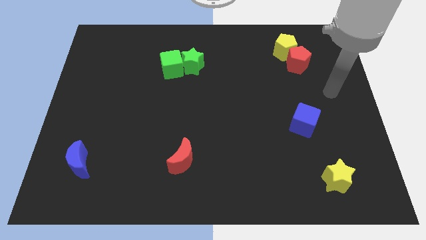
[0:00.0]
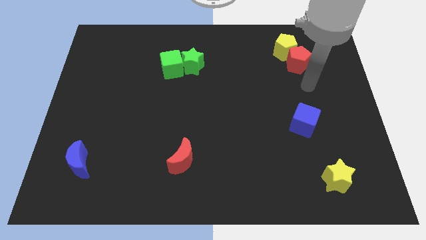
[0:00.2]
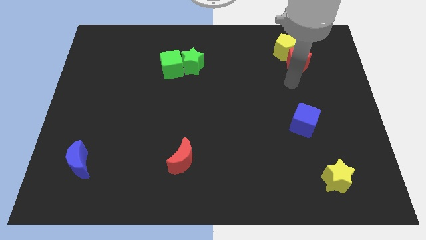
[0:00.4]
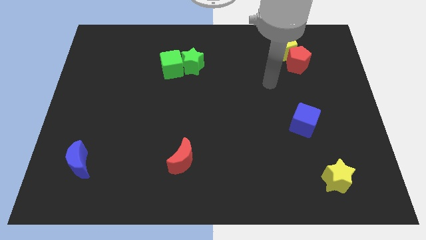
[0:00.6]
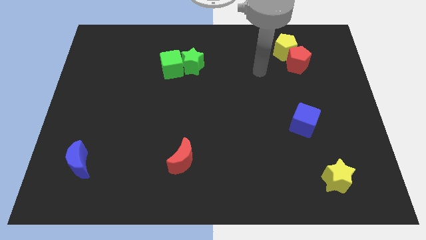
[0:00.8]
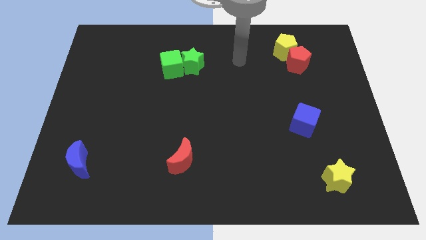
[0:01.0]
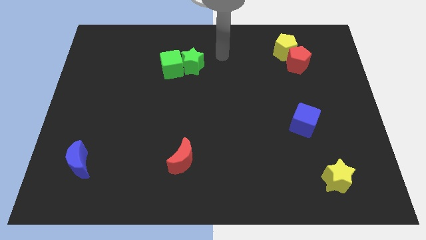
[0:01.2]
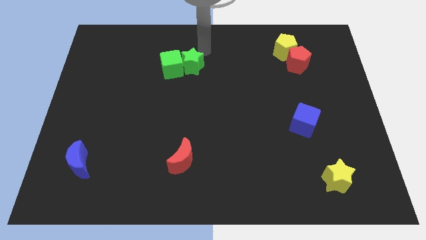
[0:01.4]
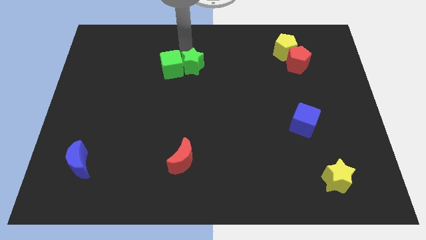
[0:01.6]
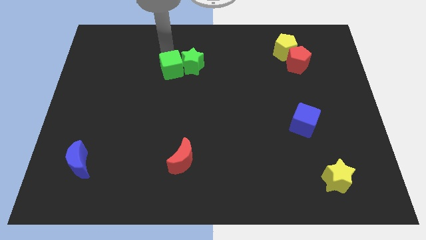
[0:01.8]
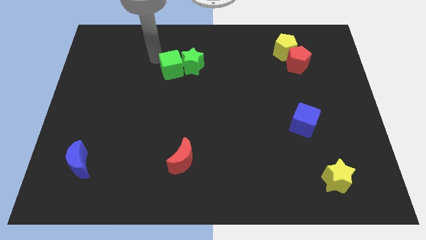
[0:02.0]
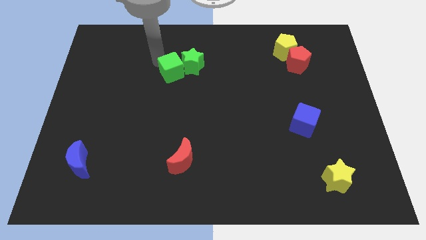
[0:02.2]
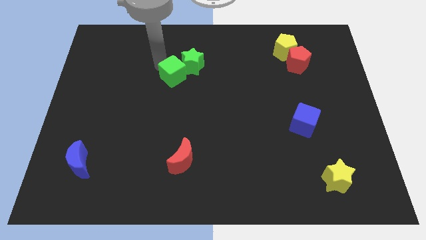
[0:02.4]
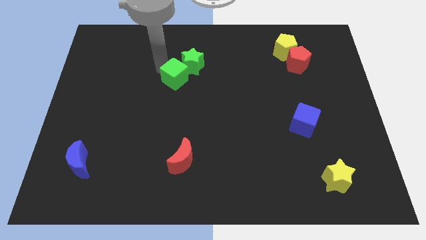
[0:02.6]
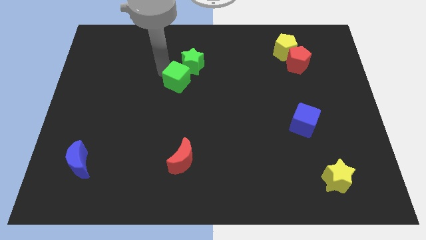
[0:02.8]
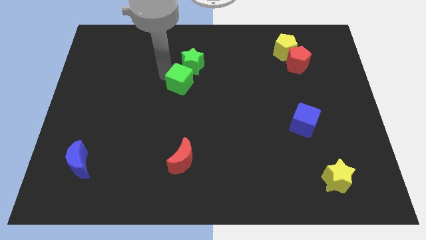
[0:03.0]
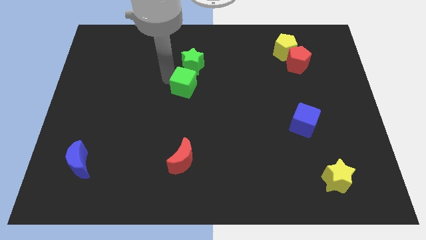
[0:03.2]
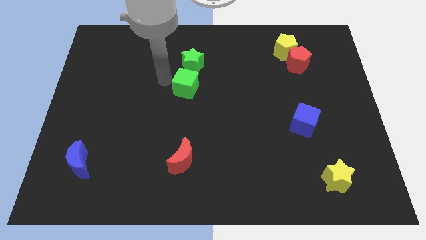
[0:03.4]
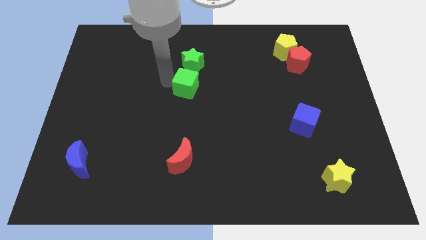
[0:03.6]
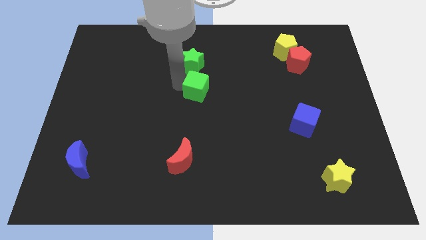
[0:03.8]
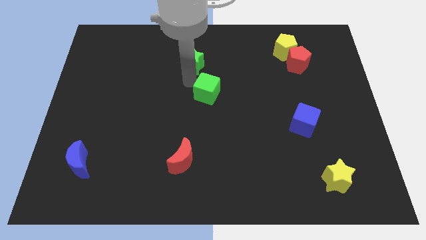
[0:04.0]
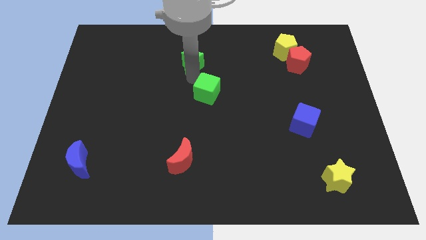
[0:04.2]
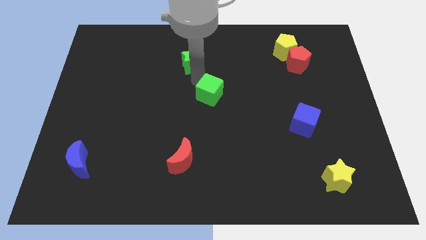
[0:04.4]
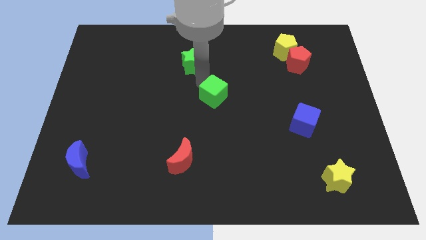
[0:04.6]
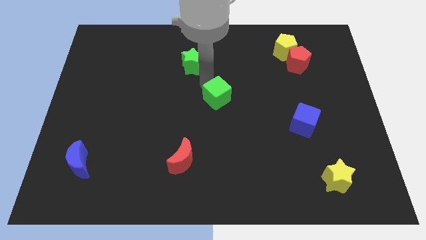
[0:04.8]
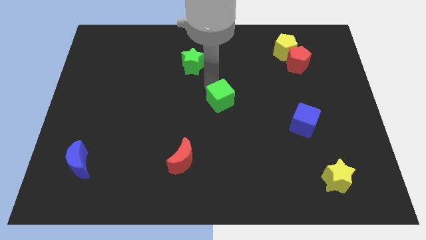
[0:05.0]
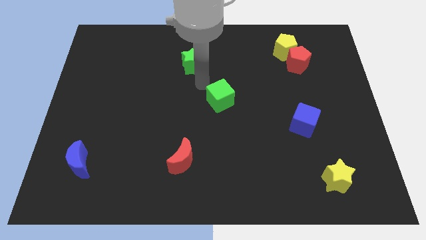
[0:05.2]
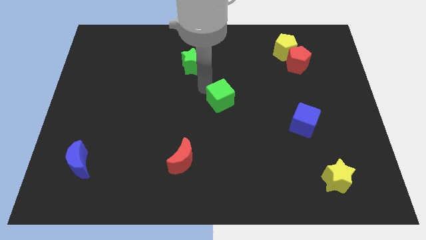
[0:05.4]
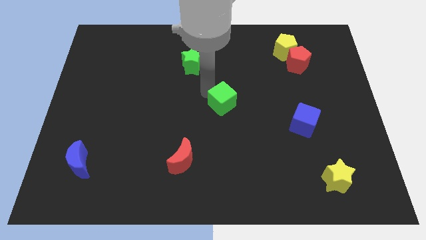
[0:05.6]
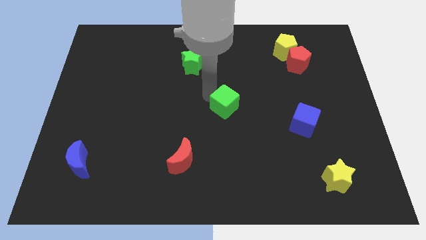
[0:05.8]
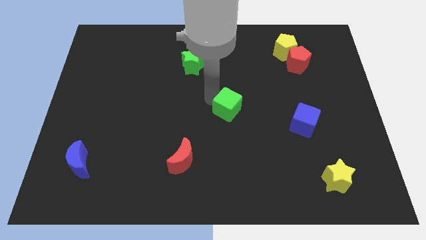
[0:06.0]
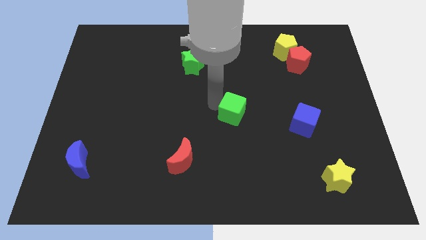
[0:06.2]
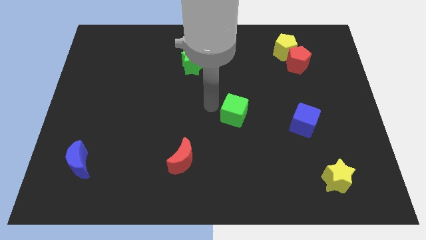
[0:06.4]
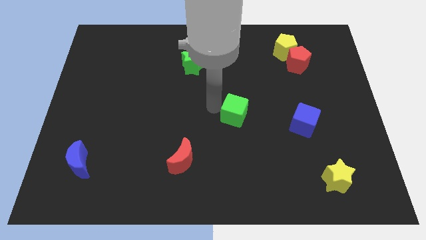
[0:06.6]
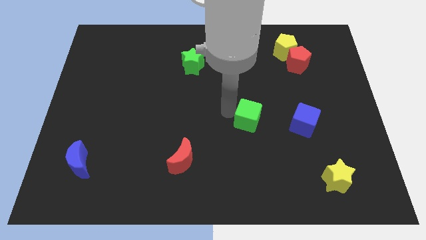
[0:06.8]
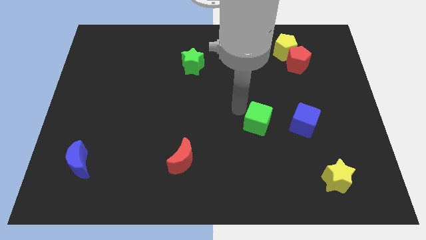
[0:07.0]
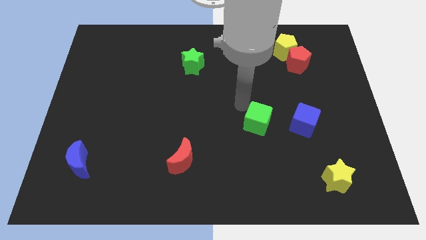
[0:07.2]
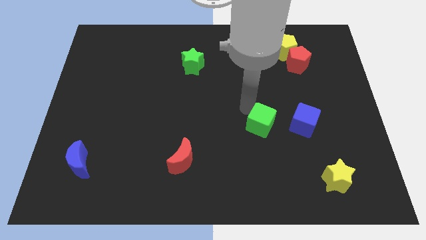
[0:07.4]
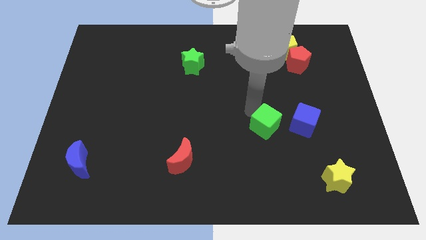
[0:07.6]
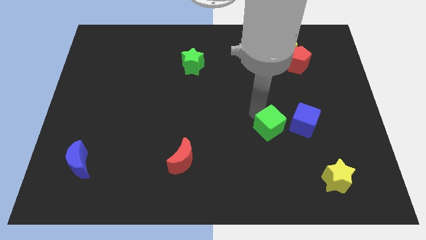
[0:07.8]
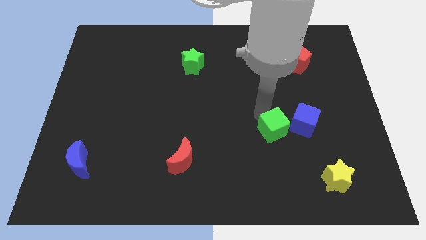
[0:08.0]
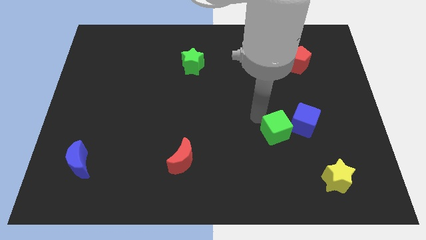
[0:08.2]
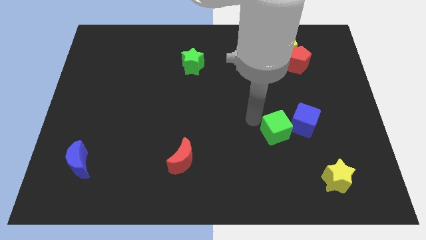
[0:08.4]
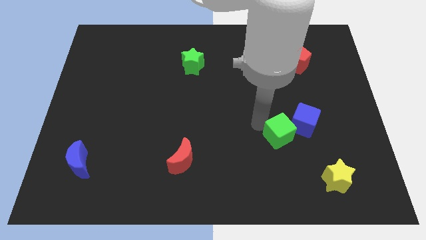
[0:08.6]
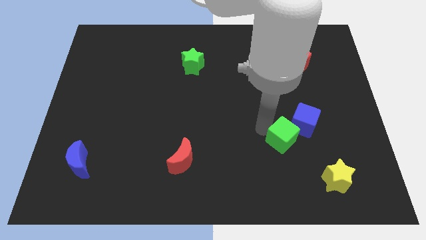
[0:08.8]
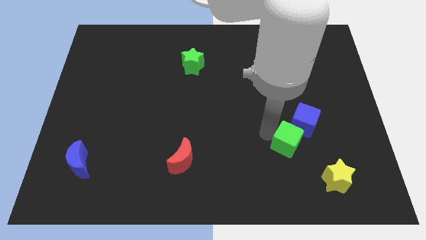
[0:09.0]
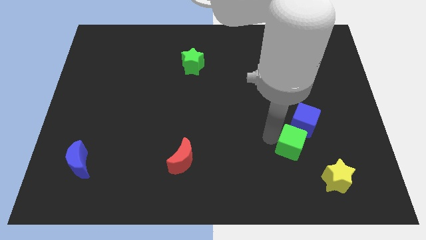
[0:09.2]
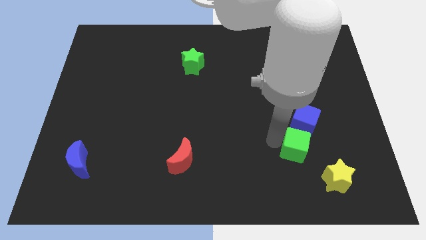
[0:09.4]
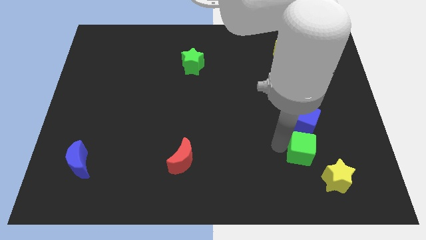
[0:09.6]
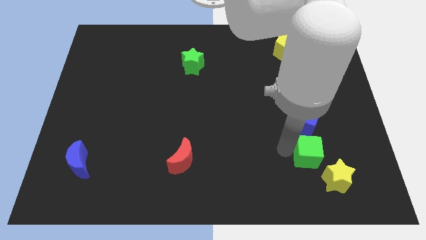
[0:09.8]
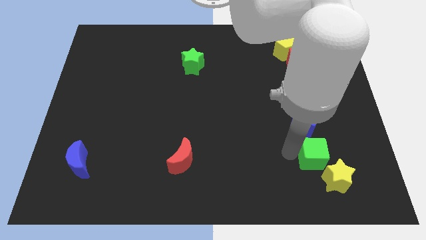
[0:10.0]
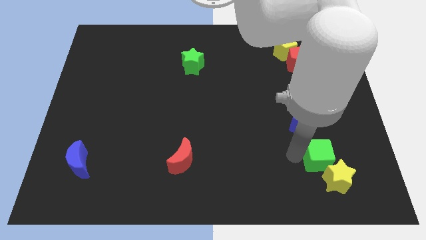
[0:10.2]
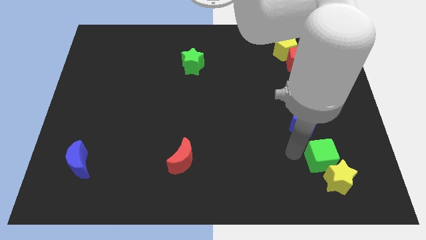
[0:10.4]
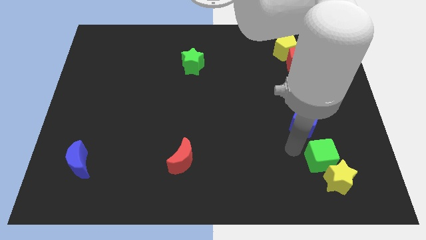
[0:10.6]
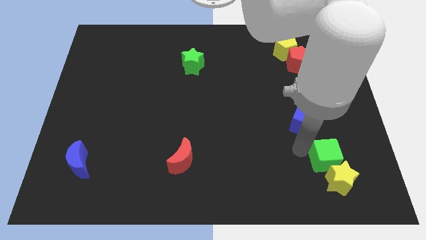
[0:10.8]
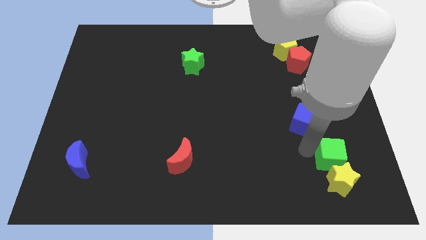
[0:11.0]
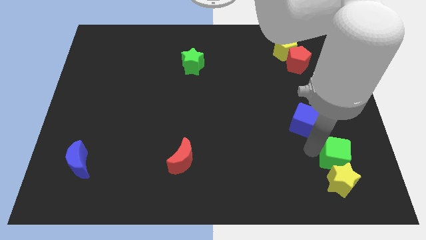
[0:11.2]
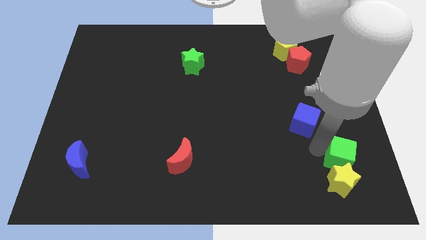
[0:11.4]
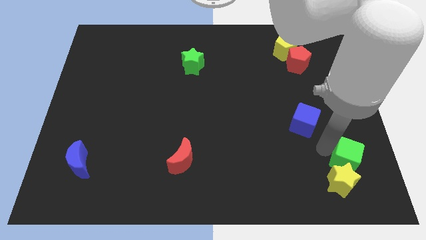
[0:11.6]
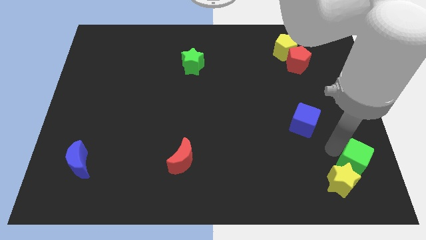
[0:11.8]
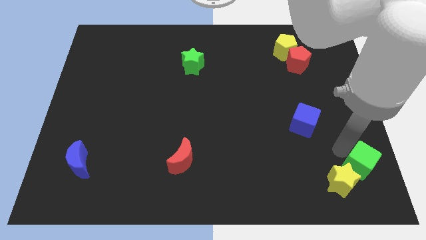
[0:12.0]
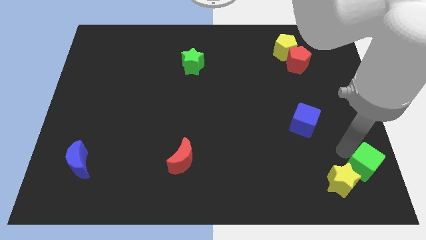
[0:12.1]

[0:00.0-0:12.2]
push the green cube to the bottom right of the board

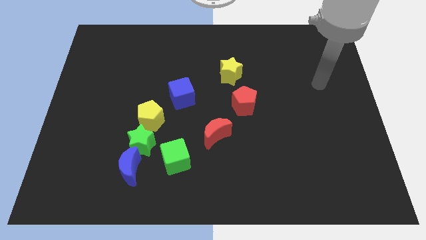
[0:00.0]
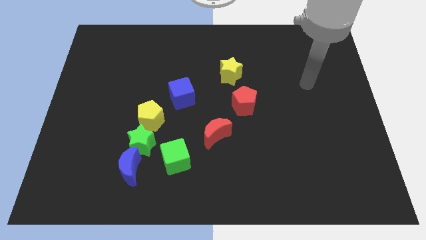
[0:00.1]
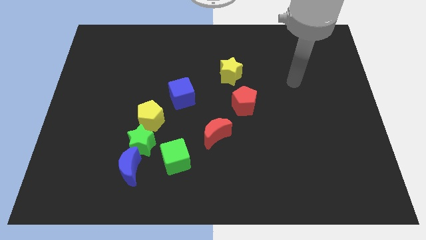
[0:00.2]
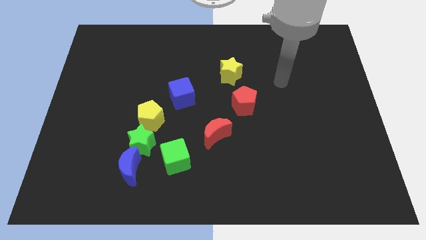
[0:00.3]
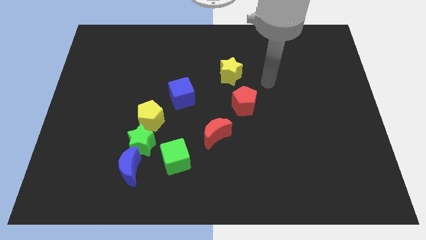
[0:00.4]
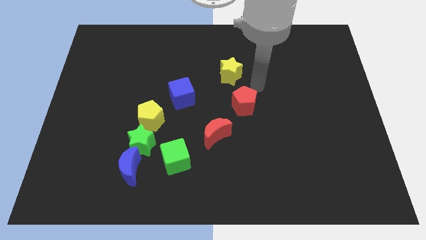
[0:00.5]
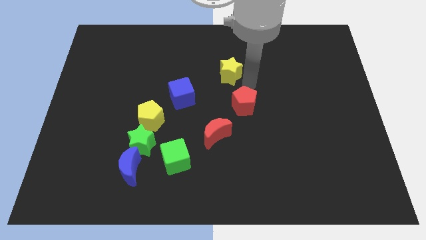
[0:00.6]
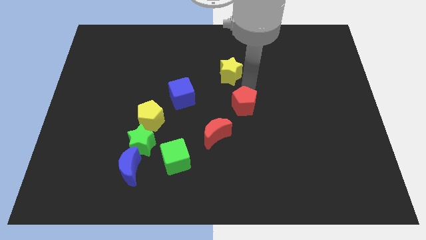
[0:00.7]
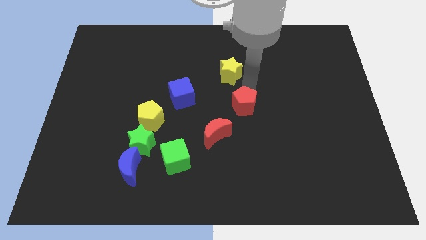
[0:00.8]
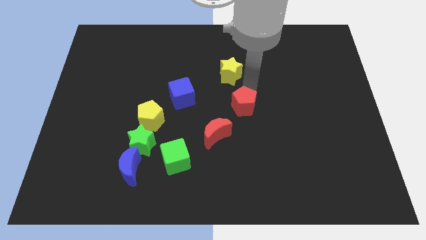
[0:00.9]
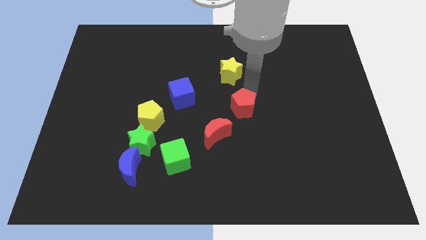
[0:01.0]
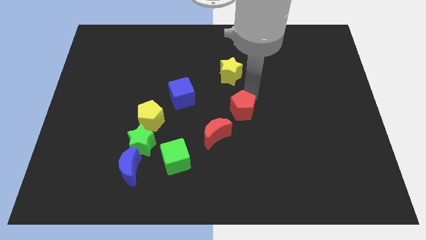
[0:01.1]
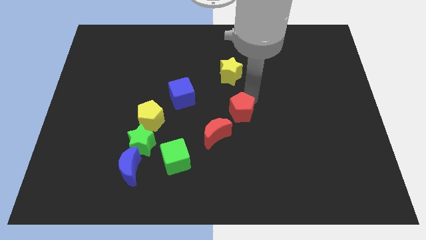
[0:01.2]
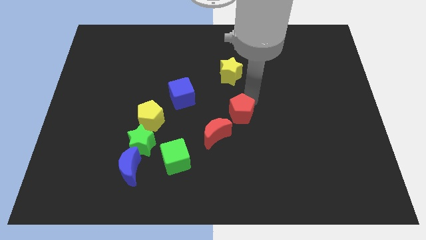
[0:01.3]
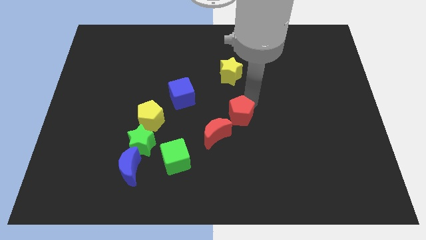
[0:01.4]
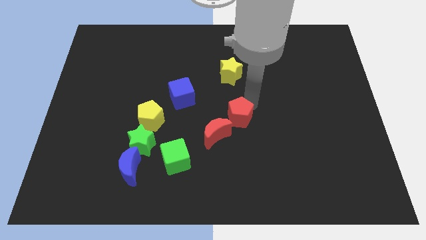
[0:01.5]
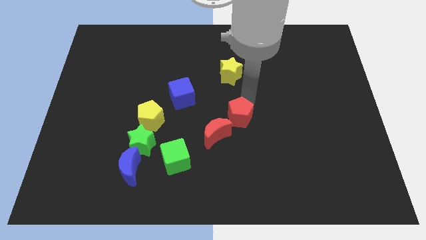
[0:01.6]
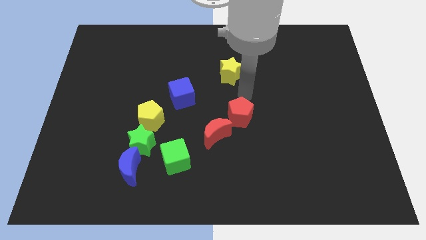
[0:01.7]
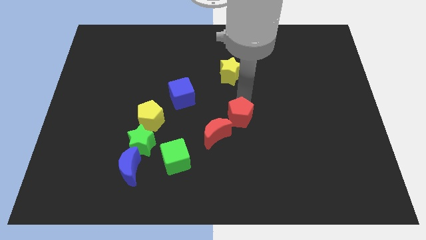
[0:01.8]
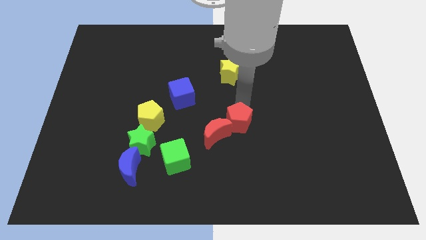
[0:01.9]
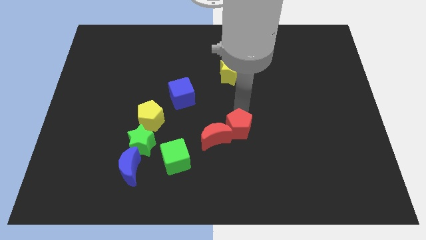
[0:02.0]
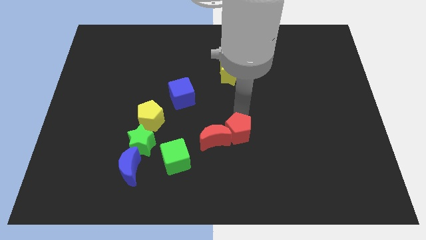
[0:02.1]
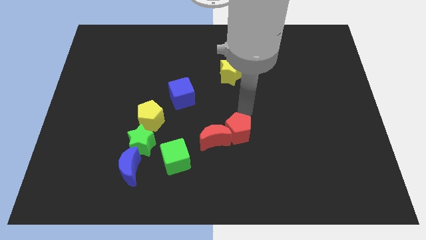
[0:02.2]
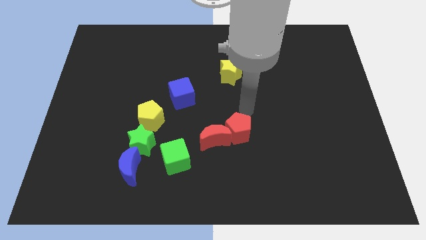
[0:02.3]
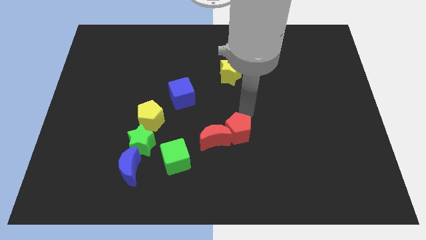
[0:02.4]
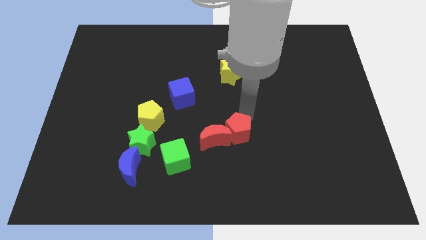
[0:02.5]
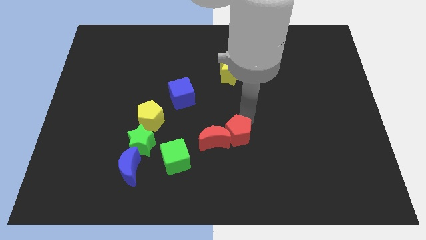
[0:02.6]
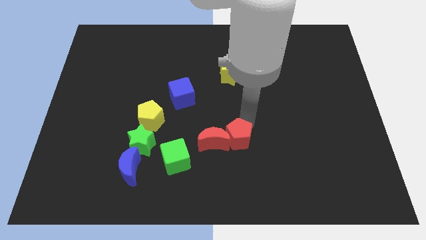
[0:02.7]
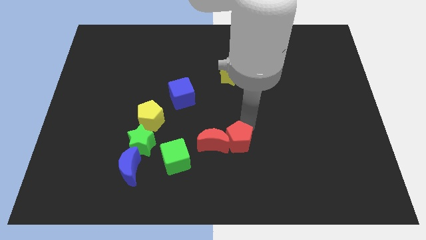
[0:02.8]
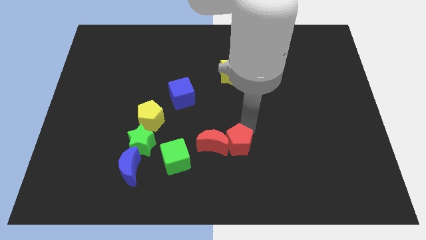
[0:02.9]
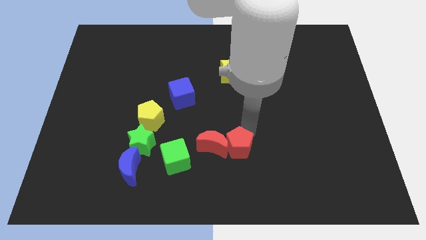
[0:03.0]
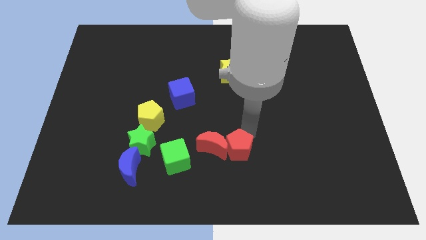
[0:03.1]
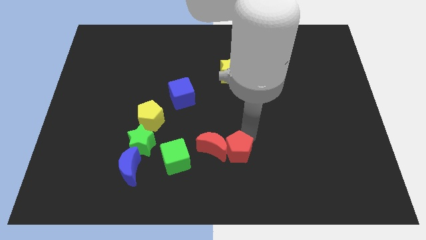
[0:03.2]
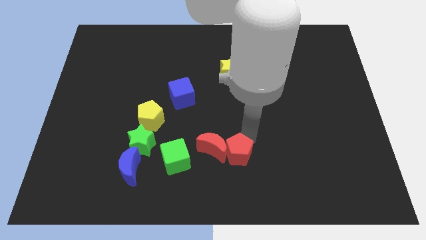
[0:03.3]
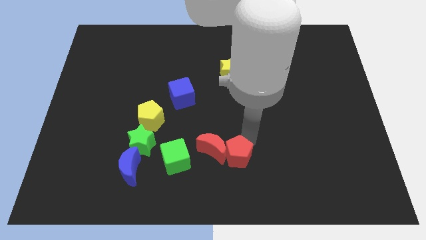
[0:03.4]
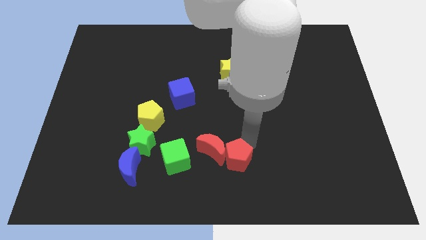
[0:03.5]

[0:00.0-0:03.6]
push the red pentagon to the bottom side
